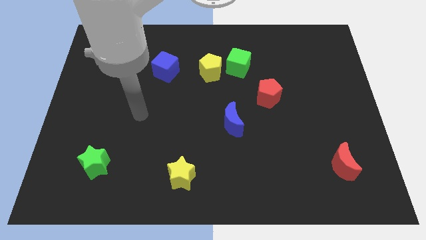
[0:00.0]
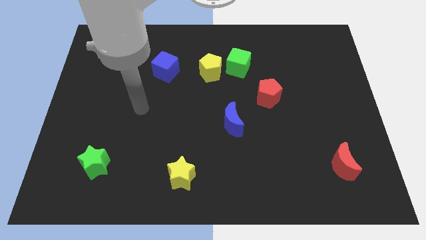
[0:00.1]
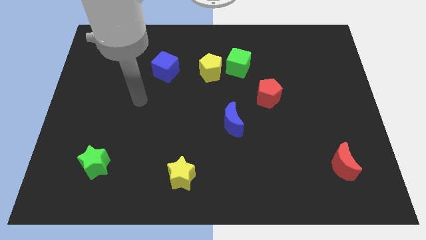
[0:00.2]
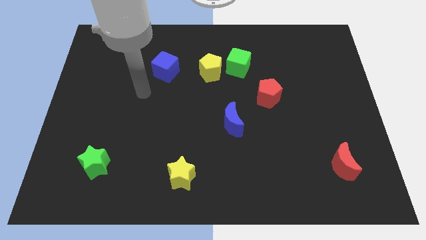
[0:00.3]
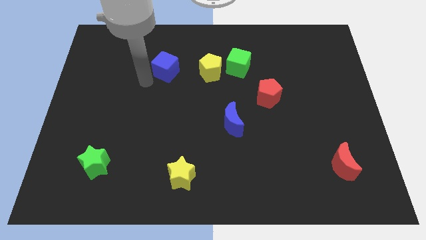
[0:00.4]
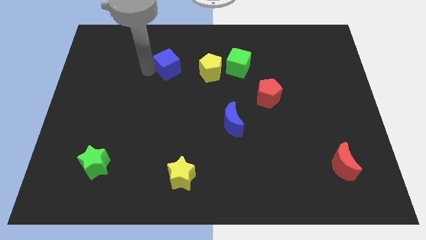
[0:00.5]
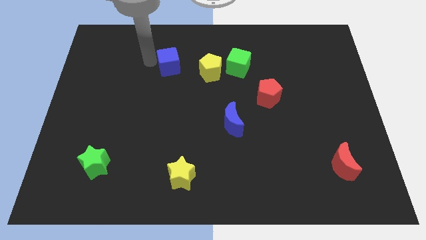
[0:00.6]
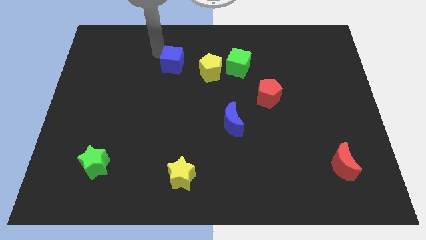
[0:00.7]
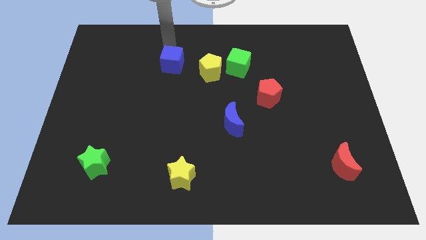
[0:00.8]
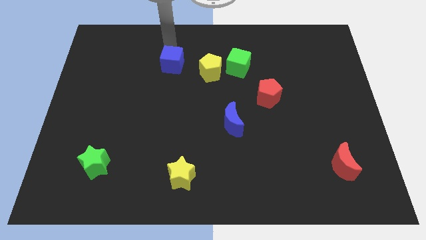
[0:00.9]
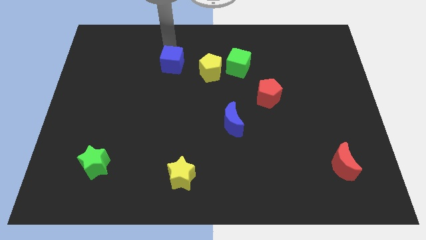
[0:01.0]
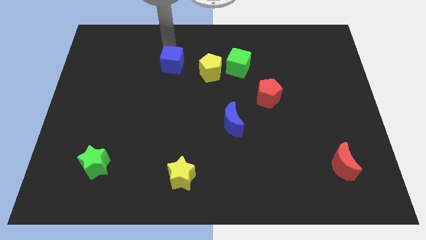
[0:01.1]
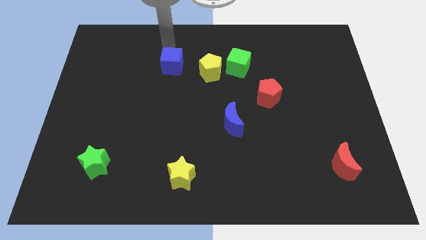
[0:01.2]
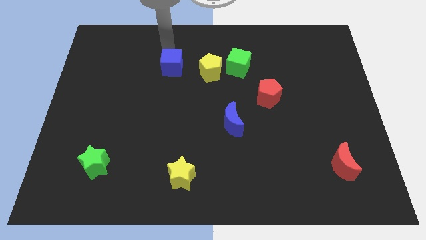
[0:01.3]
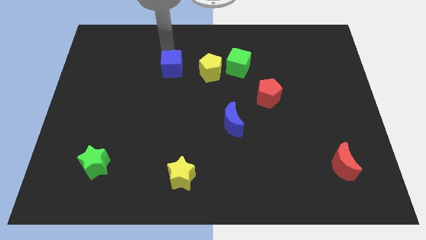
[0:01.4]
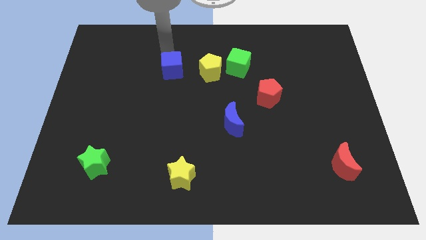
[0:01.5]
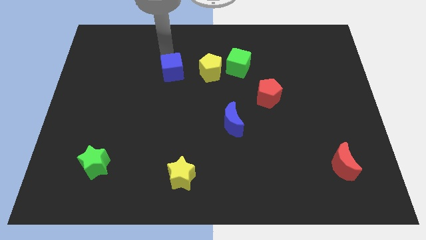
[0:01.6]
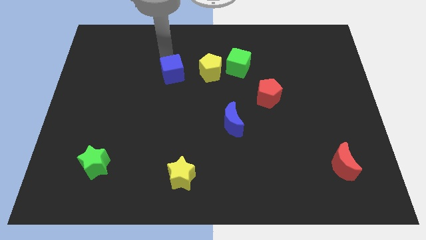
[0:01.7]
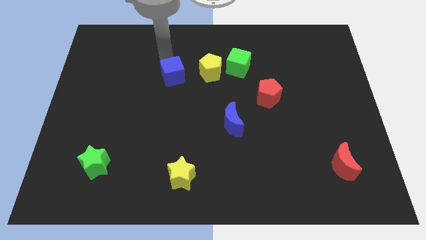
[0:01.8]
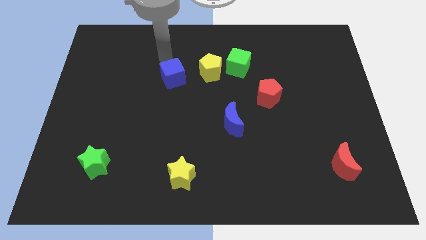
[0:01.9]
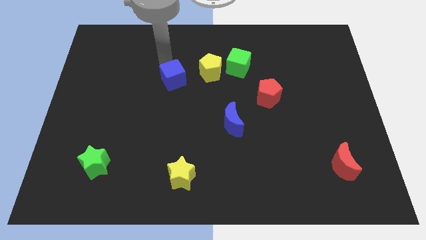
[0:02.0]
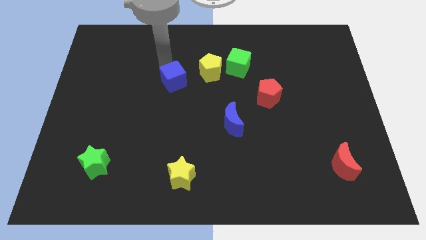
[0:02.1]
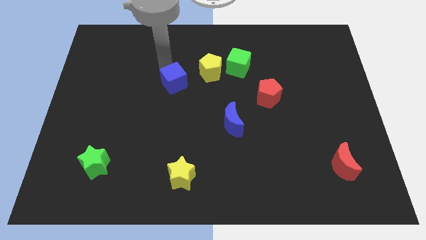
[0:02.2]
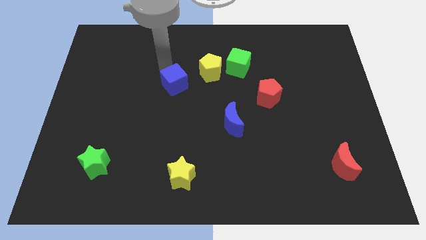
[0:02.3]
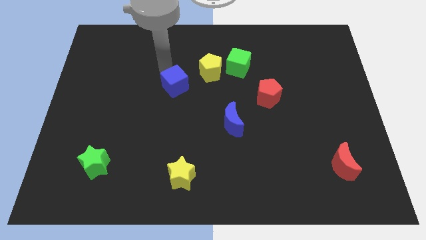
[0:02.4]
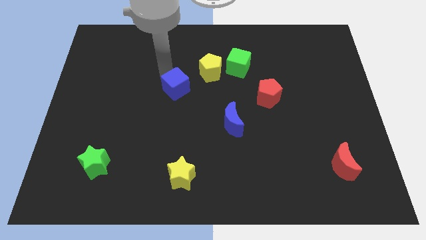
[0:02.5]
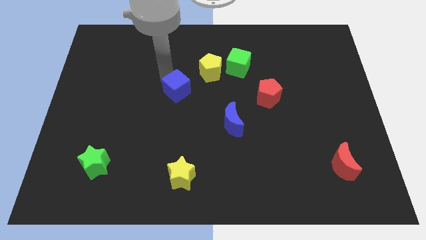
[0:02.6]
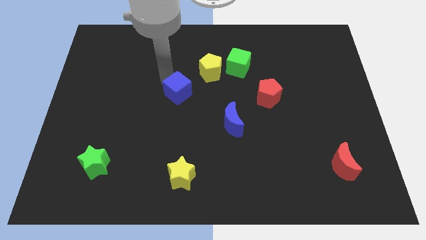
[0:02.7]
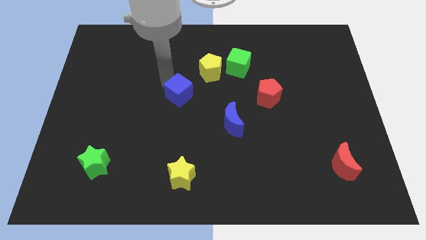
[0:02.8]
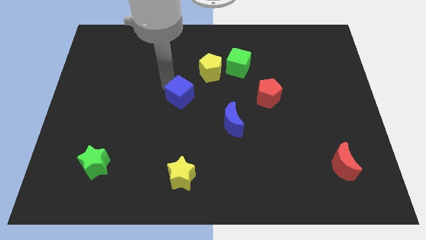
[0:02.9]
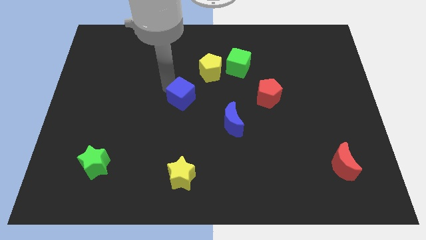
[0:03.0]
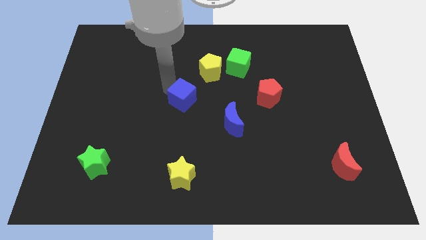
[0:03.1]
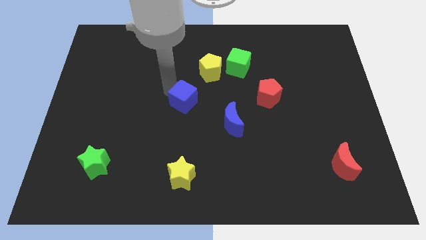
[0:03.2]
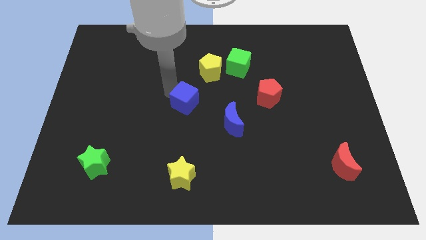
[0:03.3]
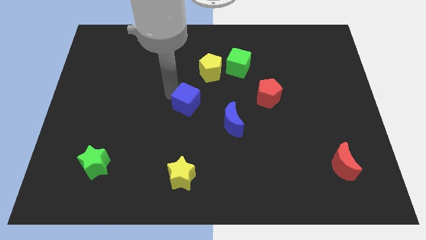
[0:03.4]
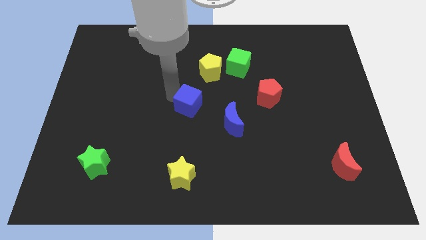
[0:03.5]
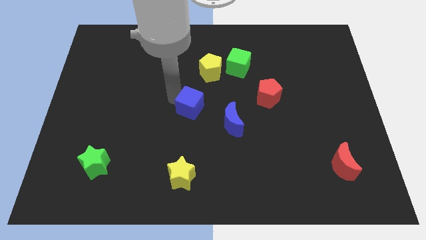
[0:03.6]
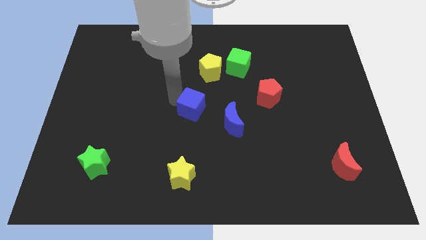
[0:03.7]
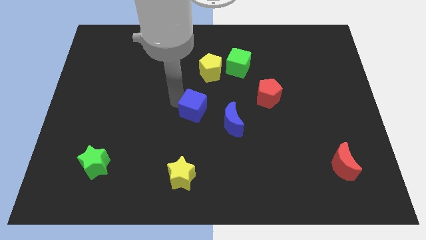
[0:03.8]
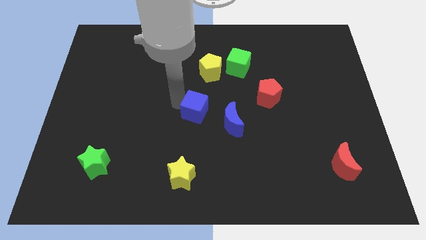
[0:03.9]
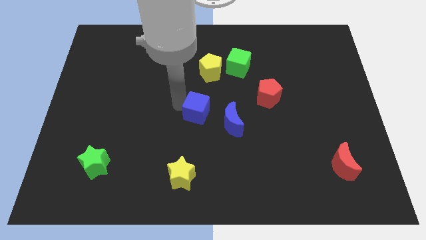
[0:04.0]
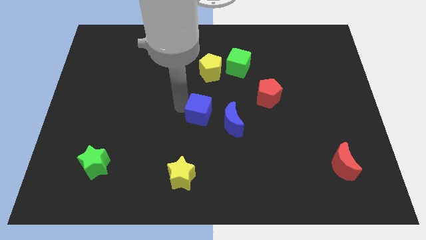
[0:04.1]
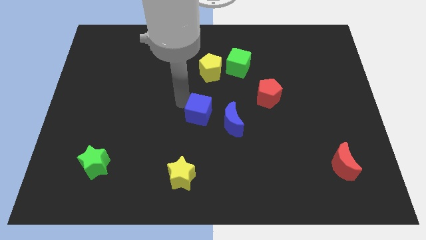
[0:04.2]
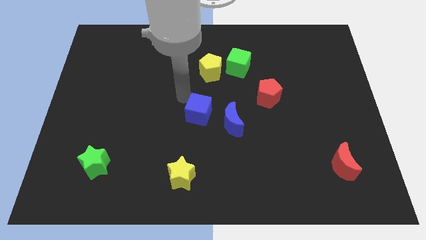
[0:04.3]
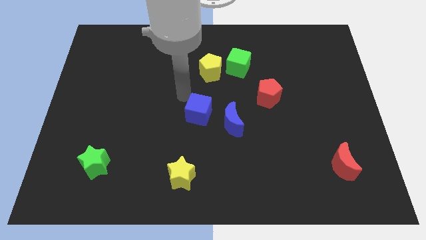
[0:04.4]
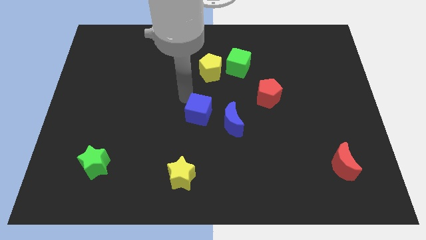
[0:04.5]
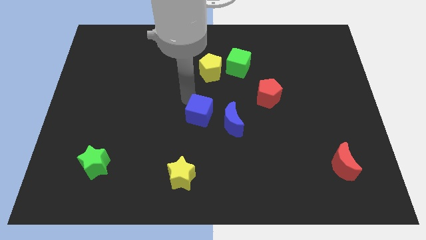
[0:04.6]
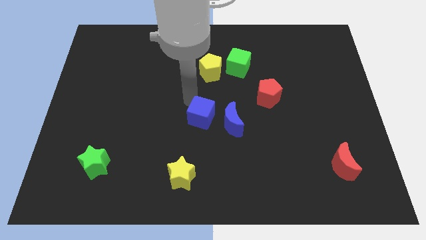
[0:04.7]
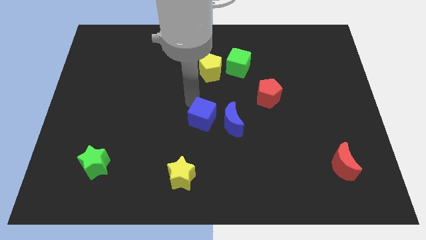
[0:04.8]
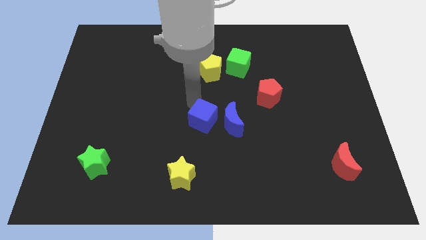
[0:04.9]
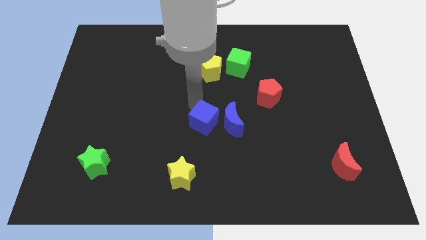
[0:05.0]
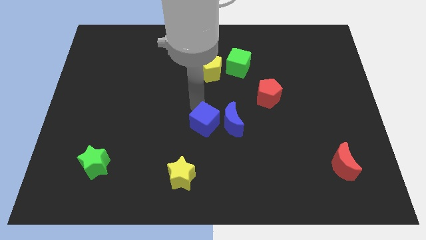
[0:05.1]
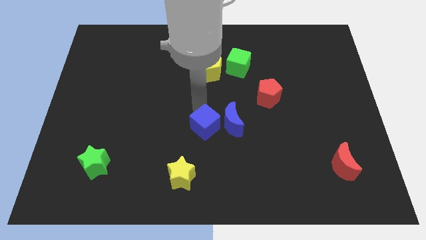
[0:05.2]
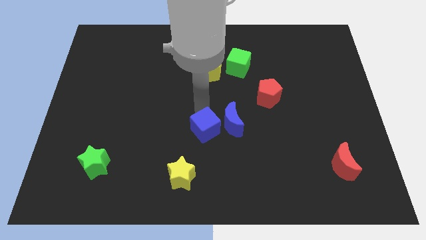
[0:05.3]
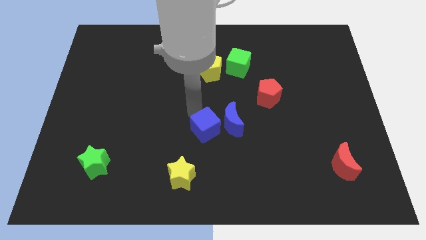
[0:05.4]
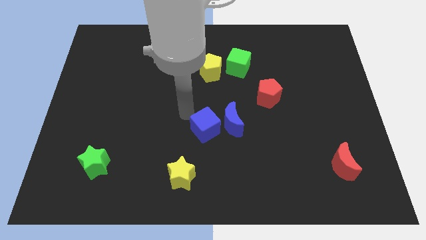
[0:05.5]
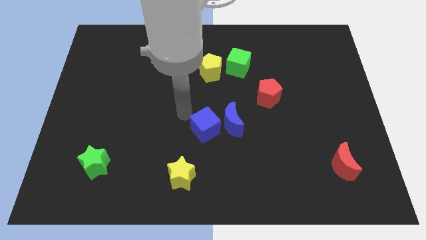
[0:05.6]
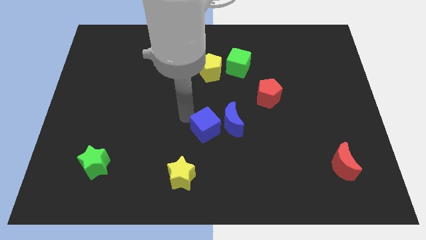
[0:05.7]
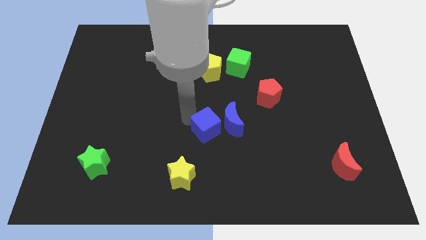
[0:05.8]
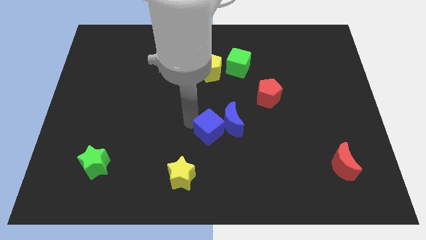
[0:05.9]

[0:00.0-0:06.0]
slide the blue cube downwards and then to the right

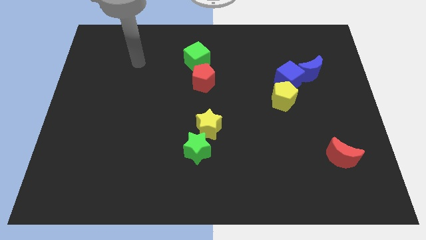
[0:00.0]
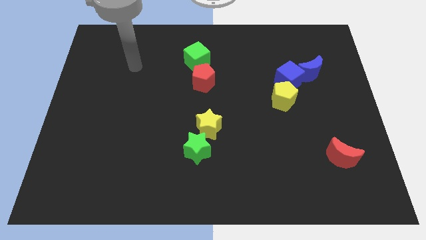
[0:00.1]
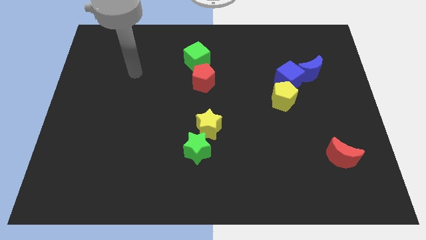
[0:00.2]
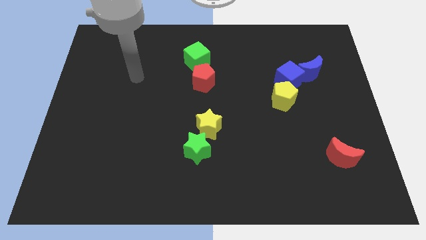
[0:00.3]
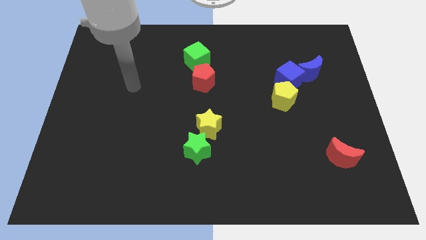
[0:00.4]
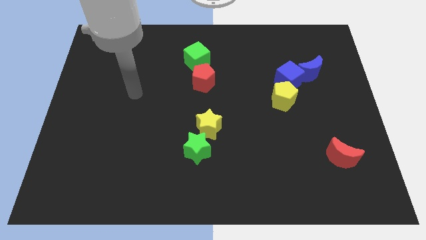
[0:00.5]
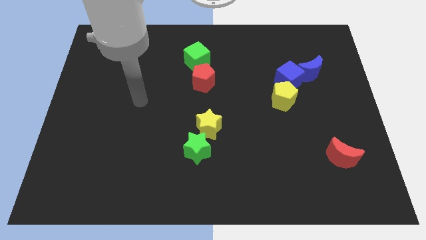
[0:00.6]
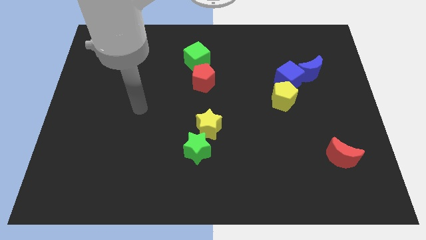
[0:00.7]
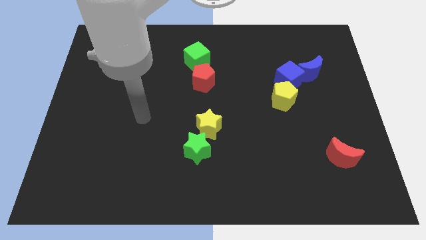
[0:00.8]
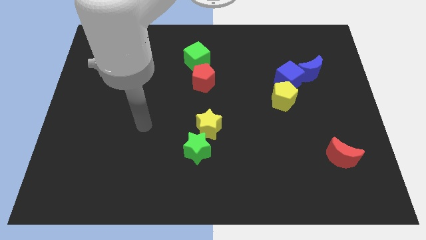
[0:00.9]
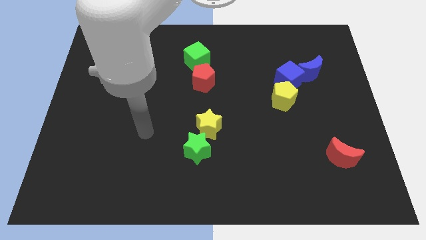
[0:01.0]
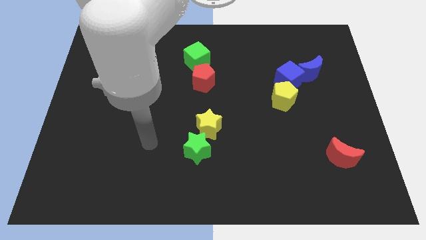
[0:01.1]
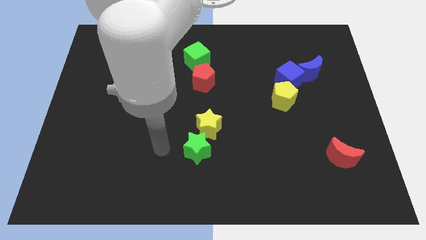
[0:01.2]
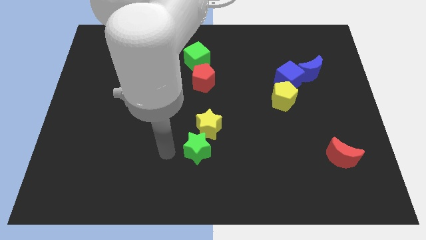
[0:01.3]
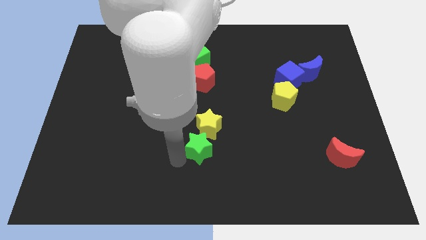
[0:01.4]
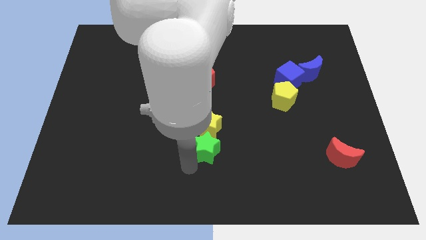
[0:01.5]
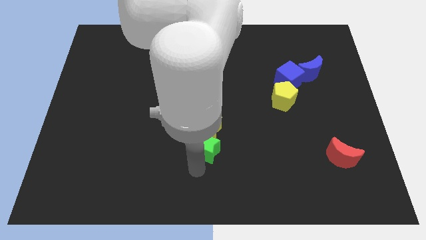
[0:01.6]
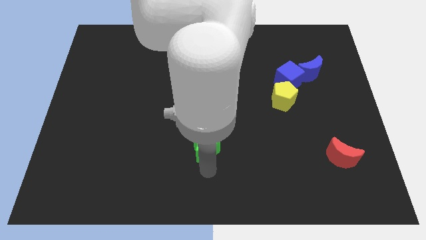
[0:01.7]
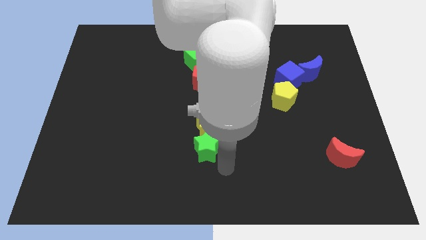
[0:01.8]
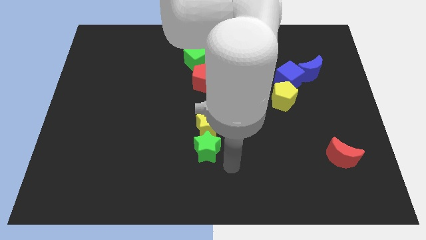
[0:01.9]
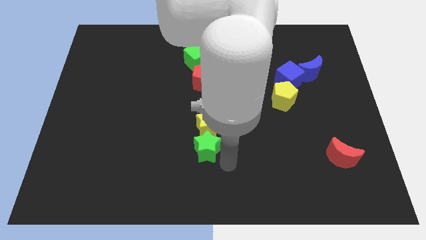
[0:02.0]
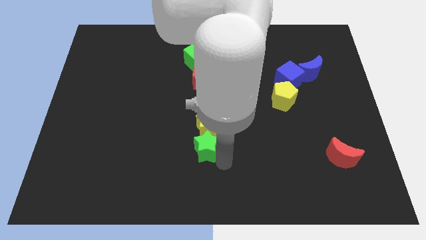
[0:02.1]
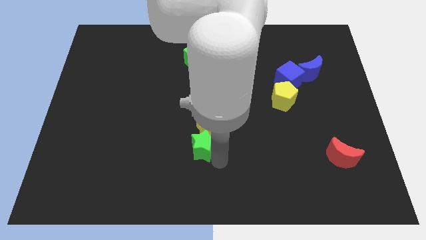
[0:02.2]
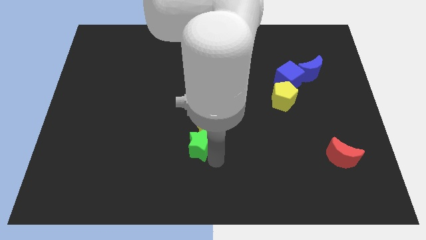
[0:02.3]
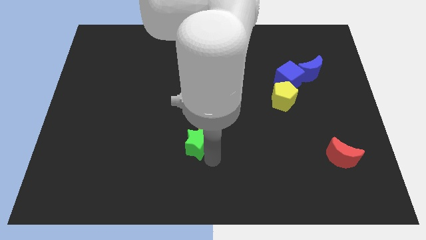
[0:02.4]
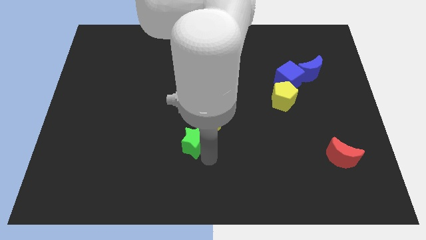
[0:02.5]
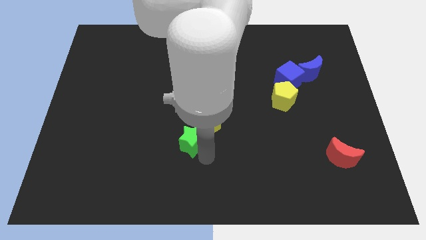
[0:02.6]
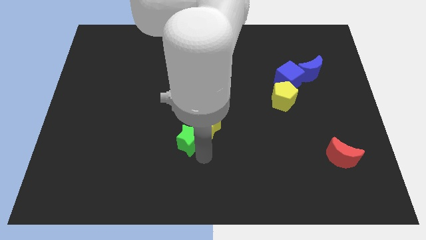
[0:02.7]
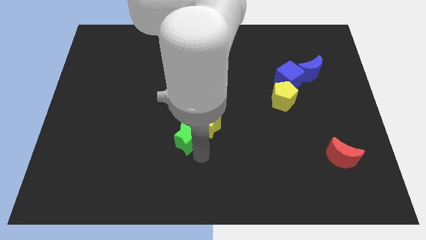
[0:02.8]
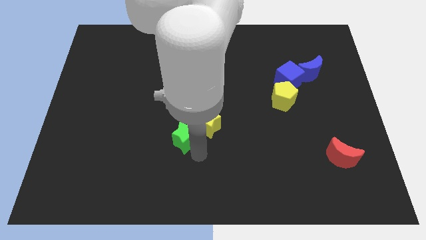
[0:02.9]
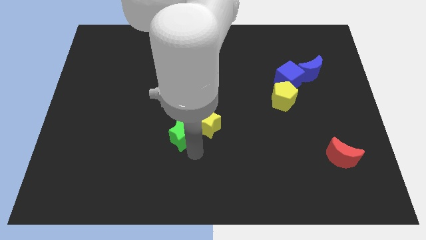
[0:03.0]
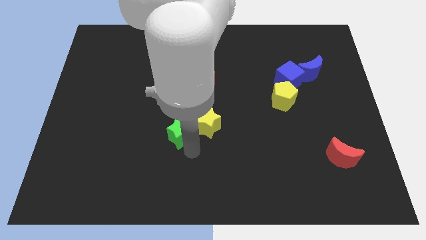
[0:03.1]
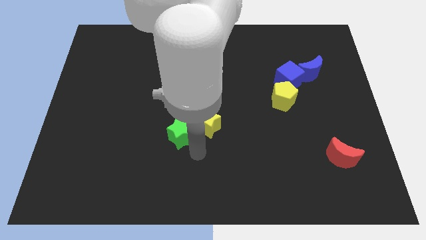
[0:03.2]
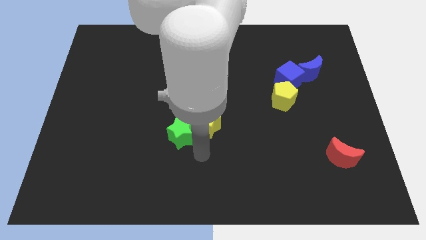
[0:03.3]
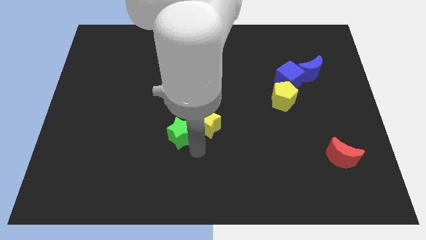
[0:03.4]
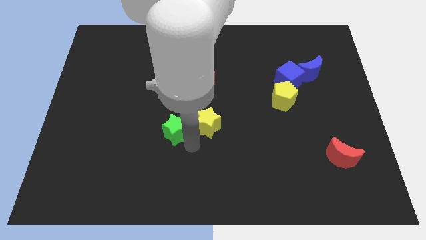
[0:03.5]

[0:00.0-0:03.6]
slide the green star upwards and then left somewhat
